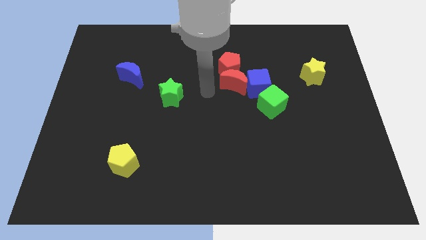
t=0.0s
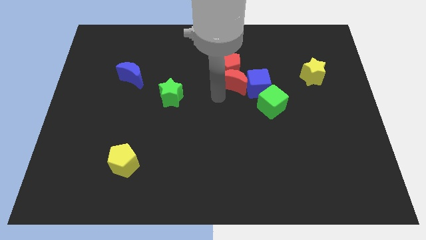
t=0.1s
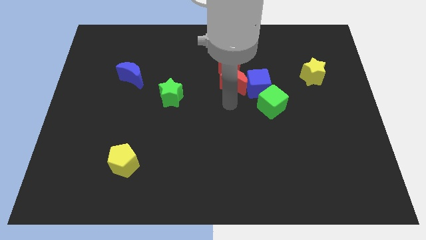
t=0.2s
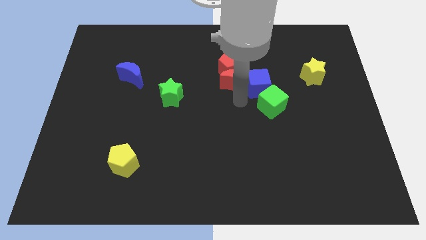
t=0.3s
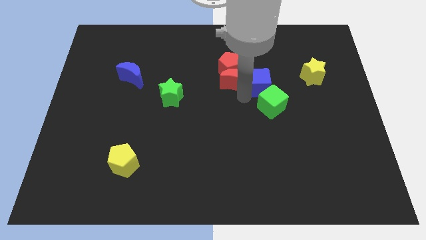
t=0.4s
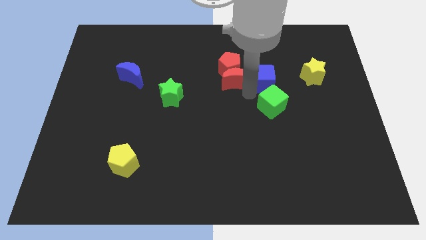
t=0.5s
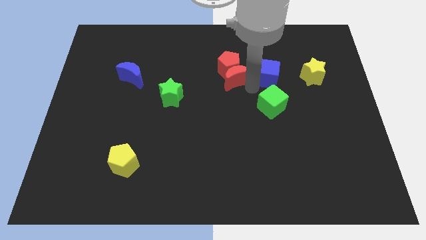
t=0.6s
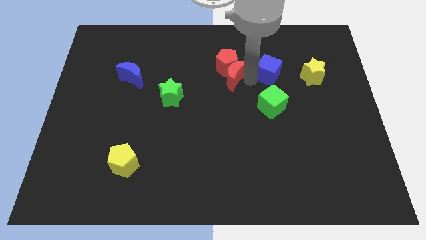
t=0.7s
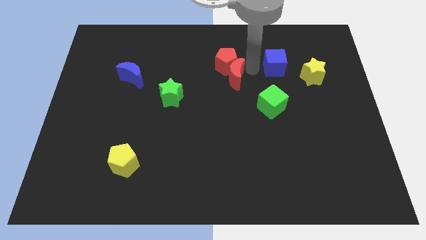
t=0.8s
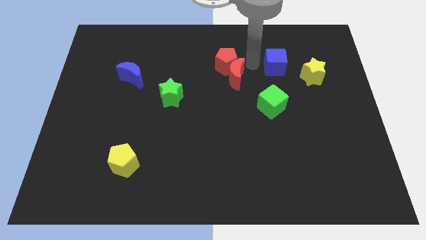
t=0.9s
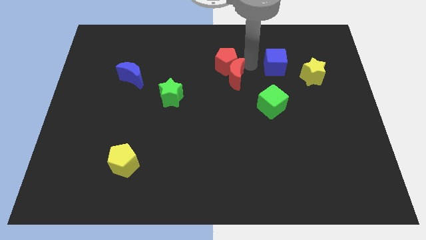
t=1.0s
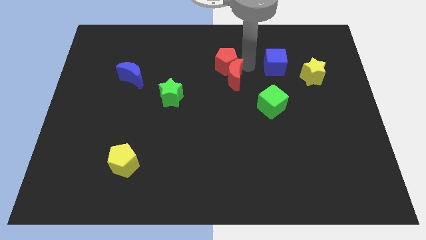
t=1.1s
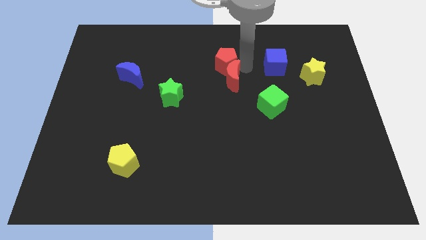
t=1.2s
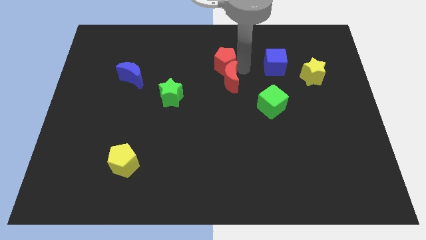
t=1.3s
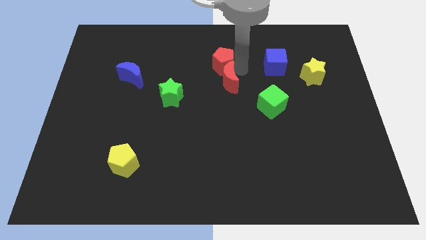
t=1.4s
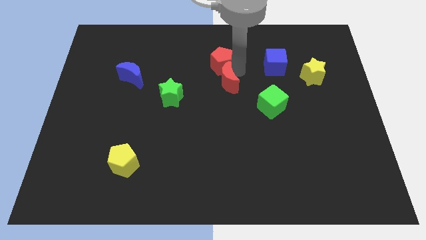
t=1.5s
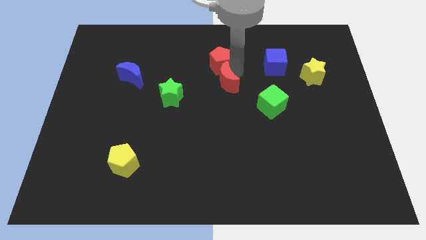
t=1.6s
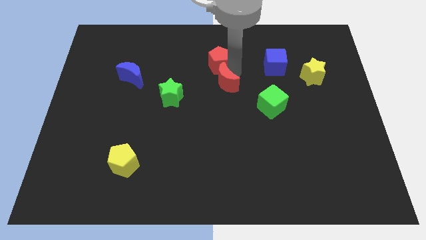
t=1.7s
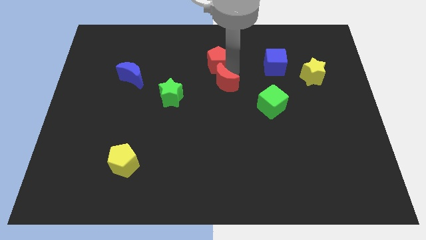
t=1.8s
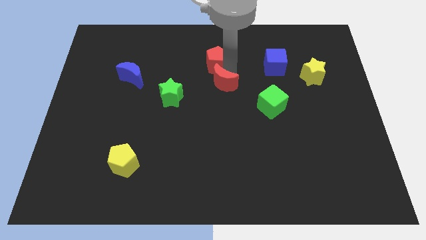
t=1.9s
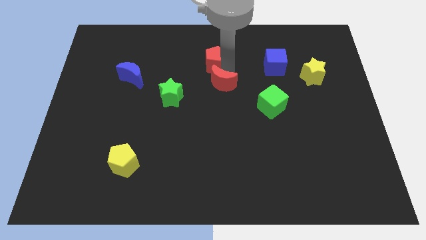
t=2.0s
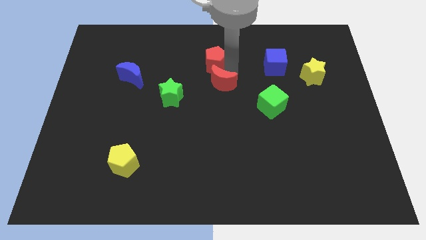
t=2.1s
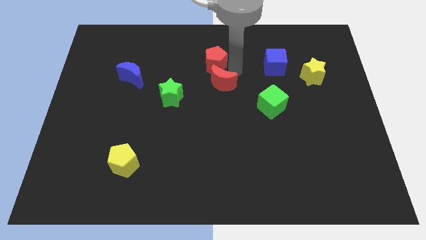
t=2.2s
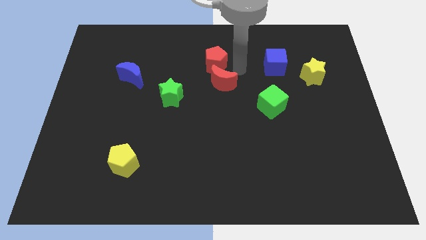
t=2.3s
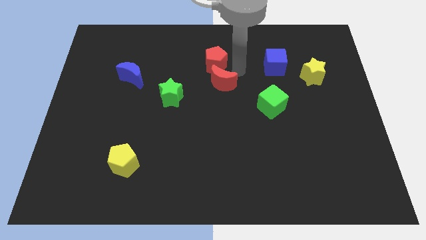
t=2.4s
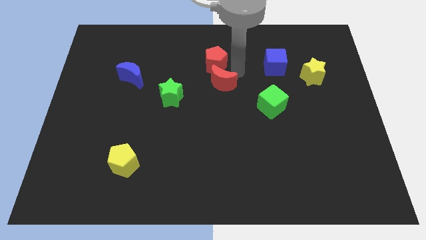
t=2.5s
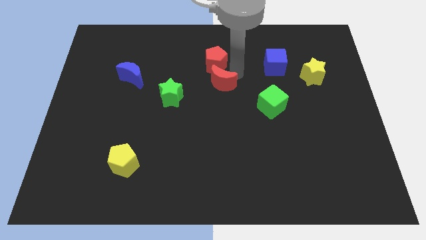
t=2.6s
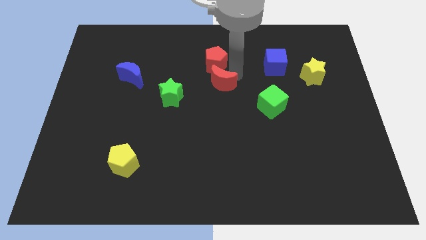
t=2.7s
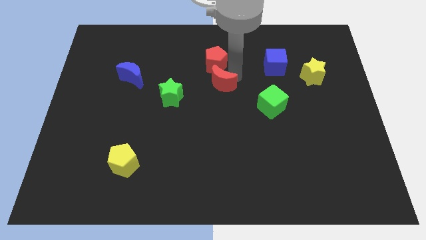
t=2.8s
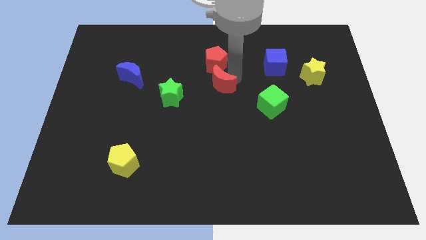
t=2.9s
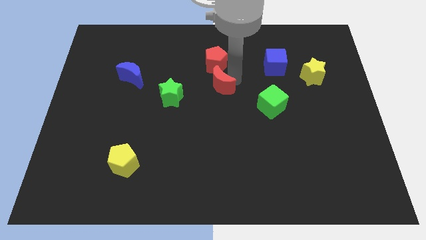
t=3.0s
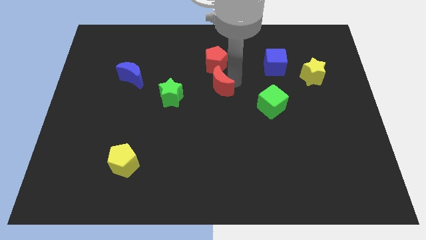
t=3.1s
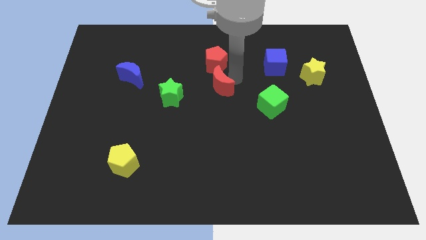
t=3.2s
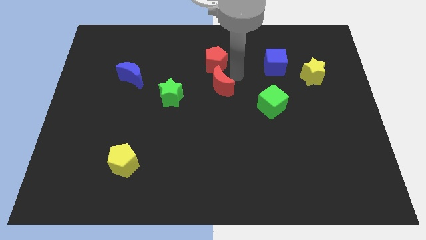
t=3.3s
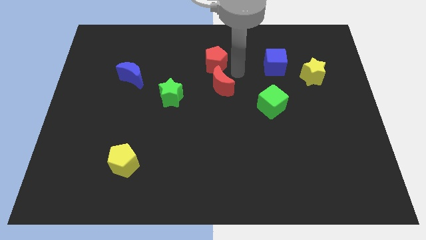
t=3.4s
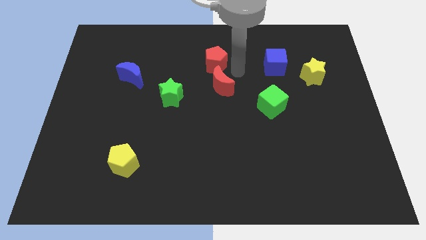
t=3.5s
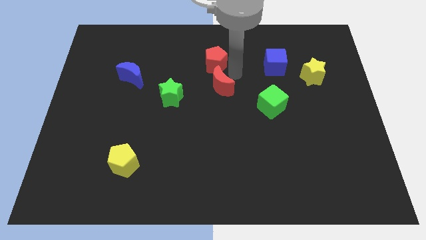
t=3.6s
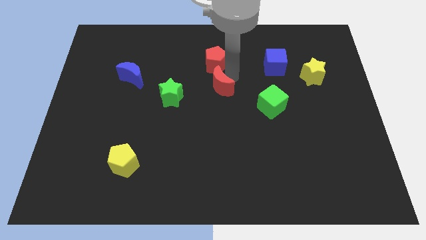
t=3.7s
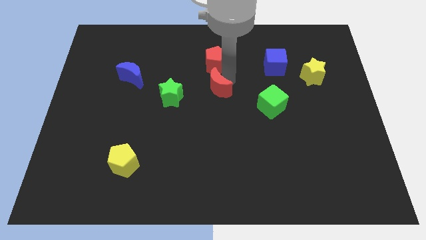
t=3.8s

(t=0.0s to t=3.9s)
pull the red moon apart from the red pentagon and blue cube

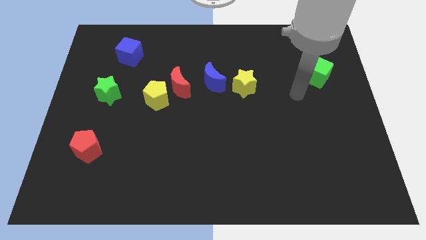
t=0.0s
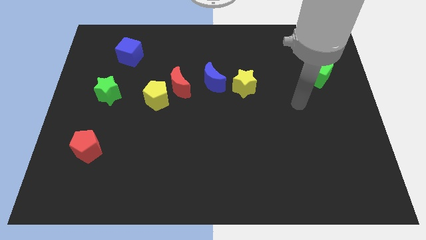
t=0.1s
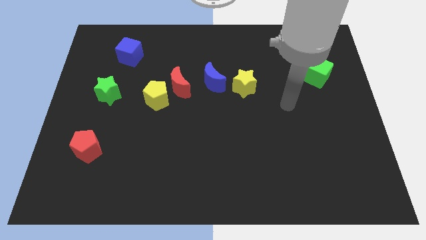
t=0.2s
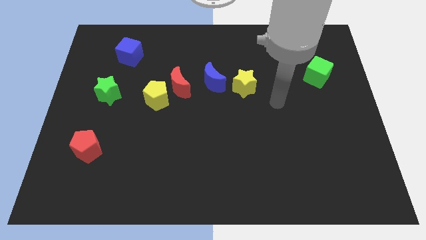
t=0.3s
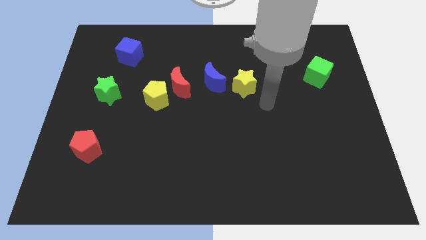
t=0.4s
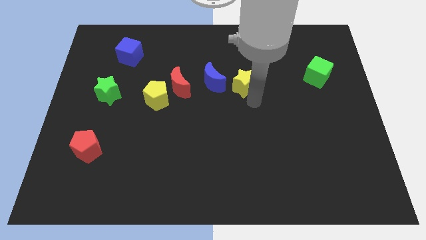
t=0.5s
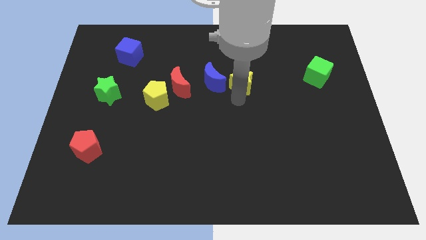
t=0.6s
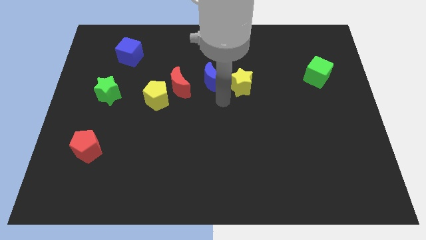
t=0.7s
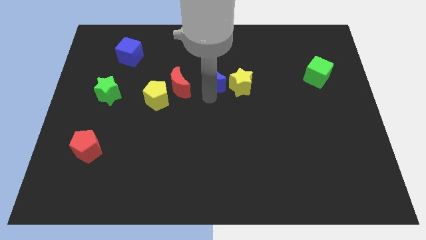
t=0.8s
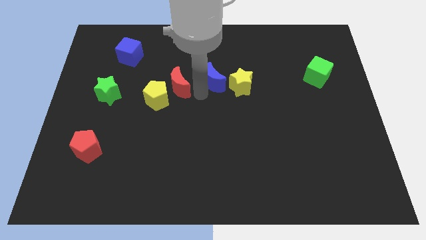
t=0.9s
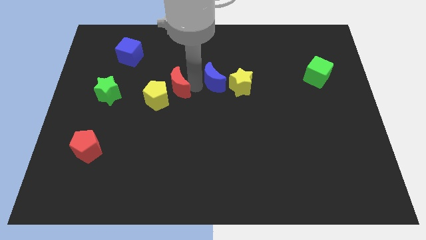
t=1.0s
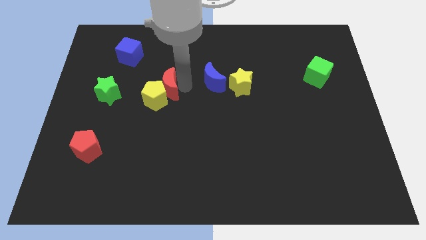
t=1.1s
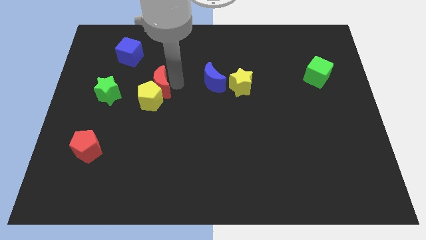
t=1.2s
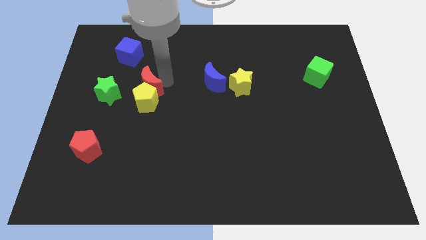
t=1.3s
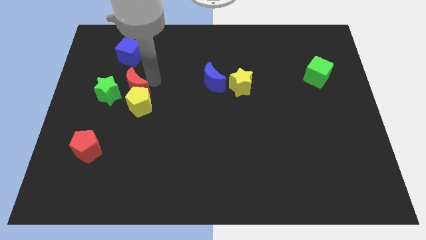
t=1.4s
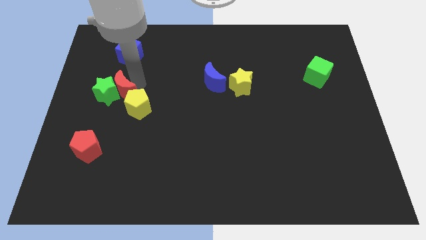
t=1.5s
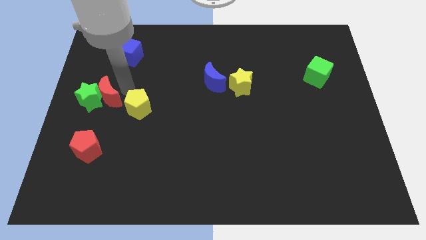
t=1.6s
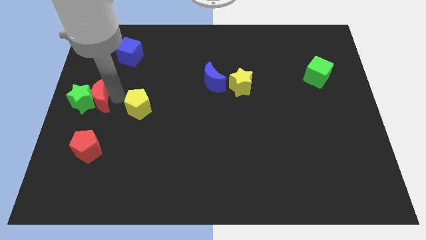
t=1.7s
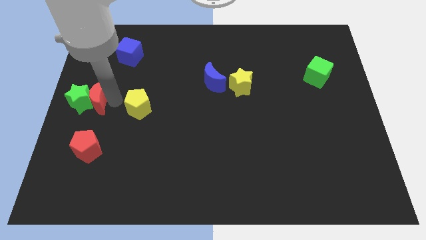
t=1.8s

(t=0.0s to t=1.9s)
pull the yellow pentagon apart from the red moon

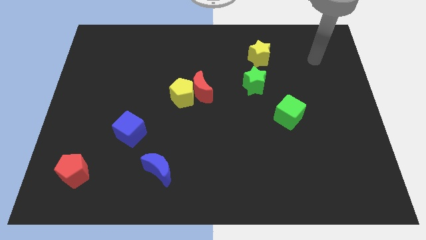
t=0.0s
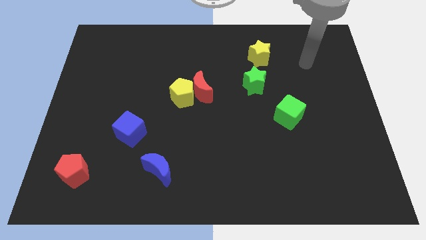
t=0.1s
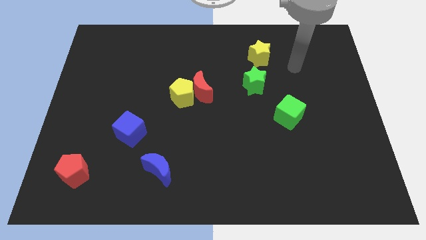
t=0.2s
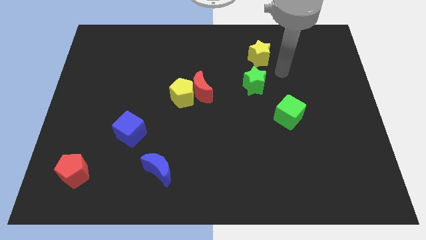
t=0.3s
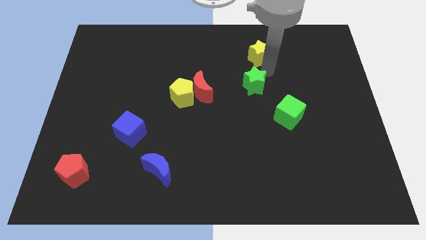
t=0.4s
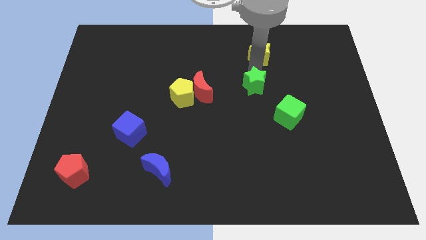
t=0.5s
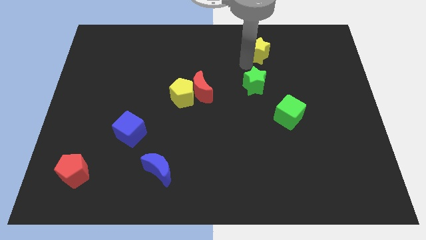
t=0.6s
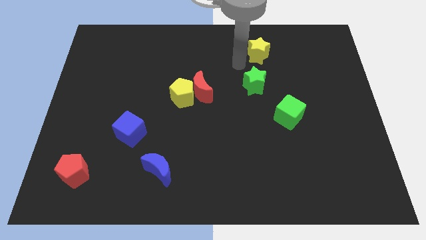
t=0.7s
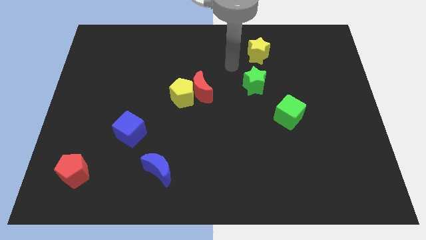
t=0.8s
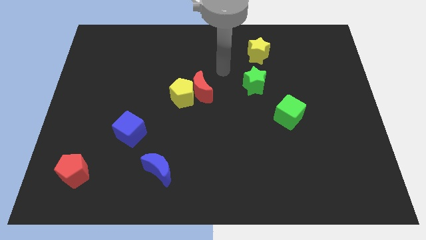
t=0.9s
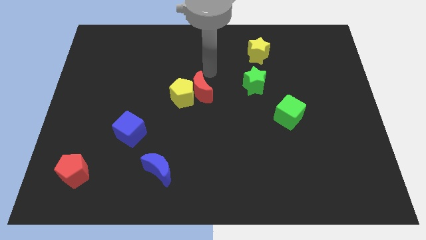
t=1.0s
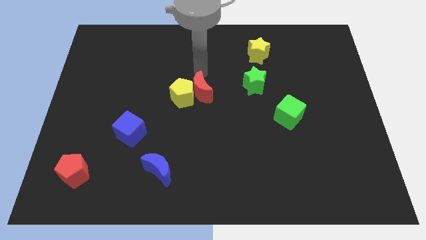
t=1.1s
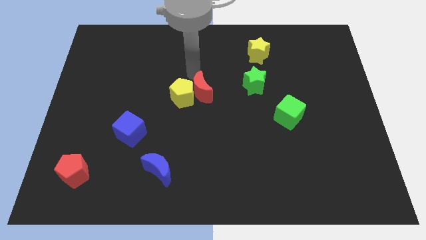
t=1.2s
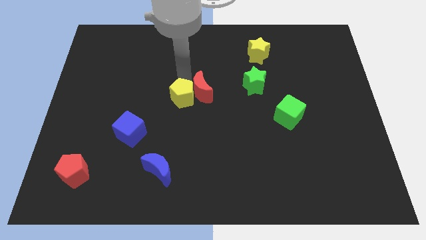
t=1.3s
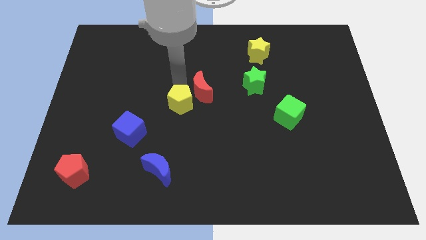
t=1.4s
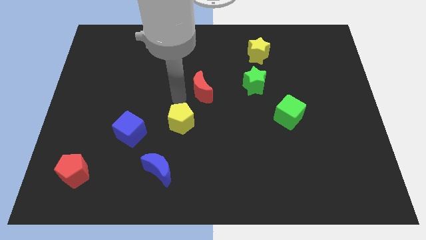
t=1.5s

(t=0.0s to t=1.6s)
pull the red moon apart from the yellow pentagon

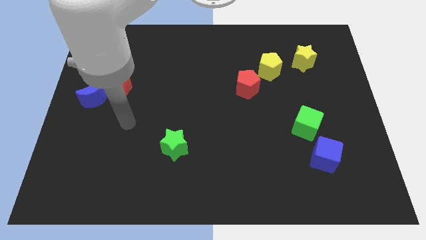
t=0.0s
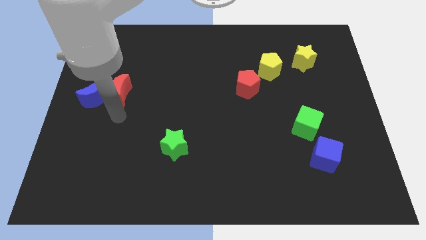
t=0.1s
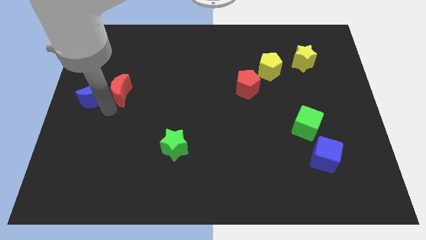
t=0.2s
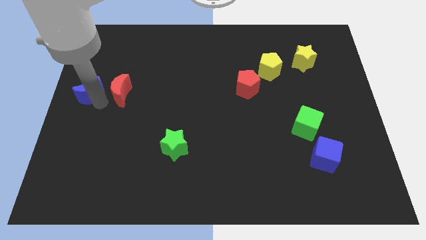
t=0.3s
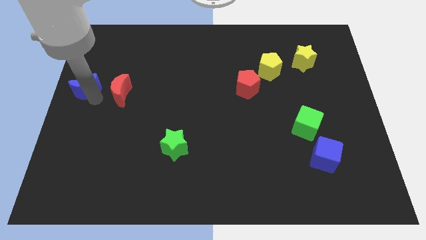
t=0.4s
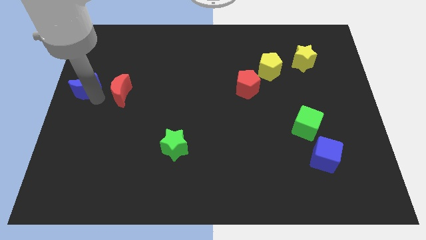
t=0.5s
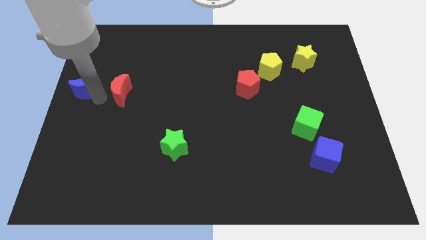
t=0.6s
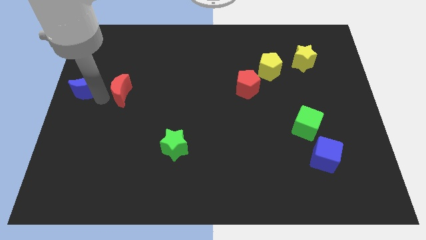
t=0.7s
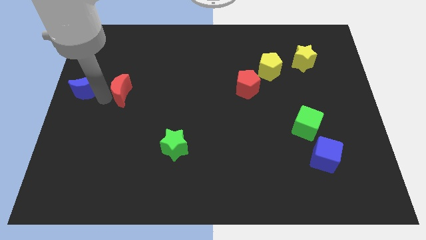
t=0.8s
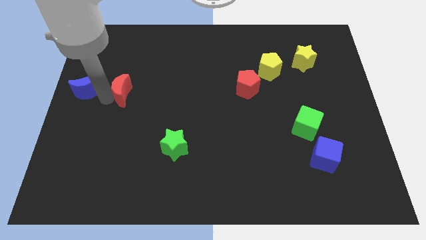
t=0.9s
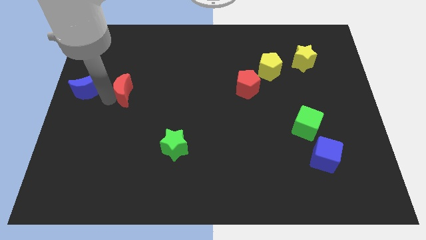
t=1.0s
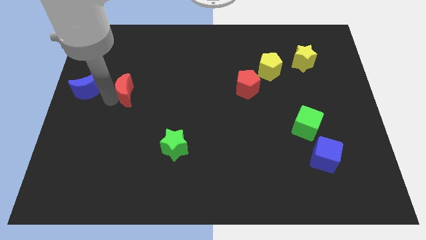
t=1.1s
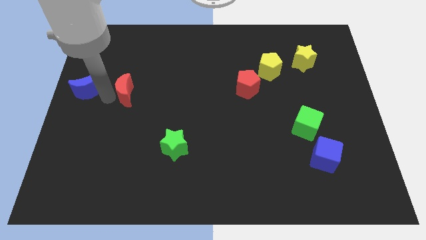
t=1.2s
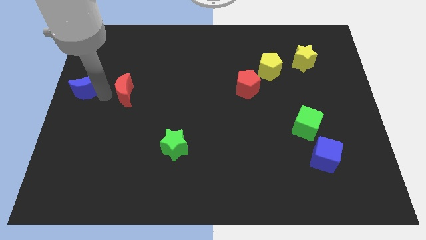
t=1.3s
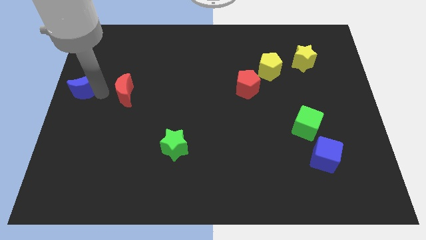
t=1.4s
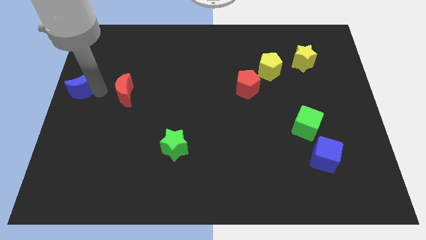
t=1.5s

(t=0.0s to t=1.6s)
separate the red moon from the blue moon

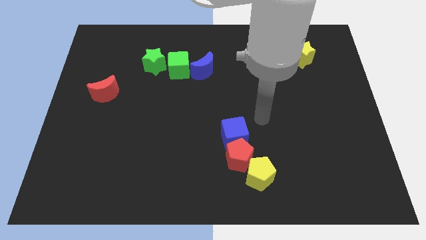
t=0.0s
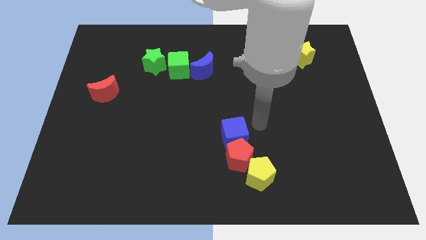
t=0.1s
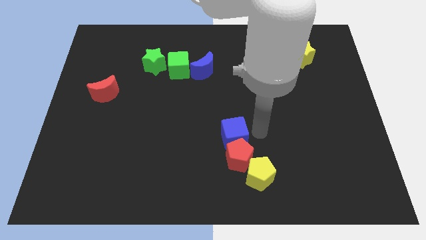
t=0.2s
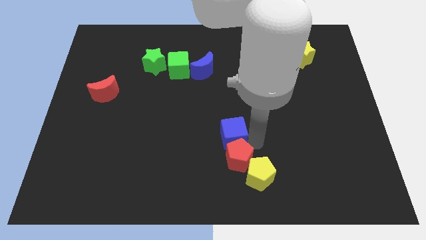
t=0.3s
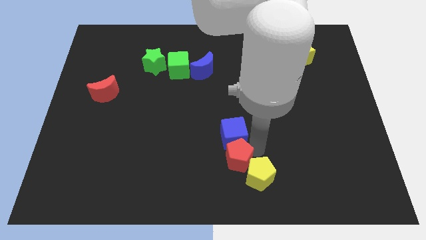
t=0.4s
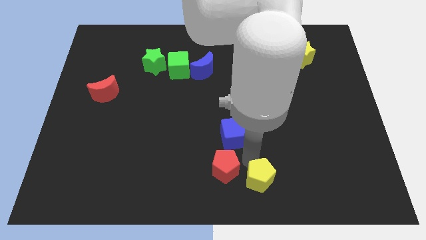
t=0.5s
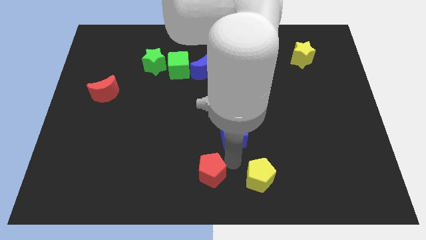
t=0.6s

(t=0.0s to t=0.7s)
separate the blue cube from the red pentagon
